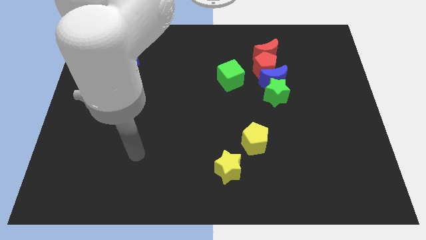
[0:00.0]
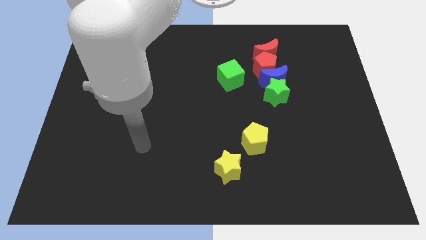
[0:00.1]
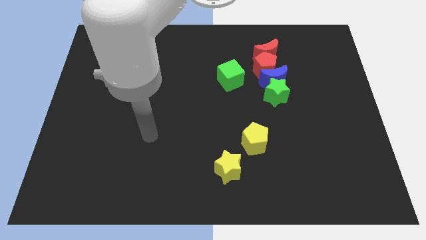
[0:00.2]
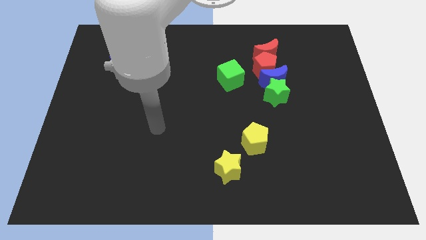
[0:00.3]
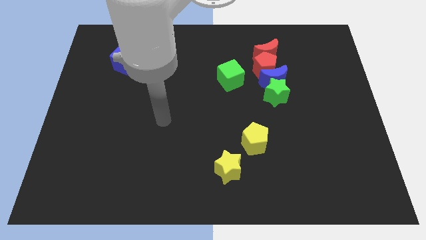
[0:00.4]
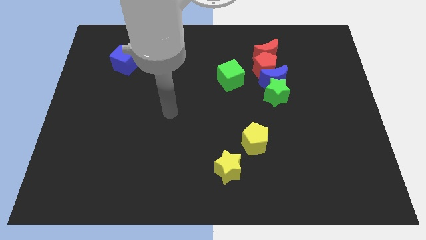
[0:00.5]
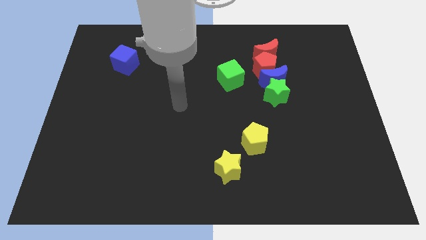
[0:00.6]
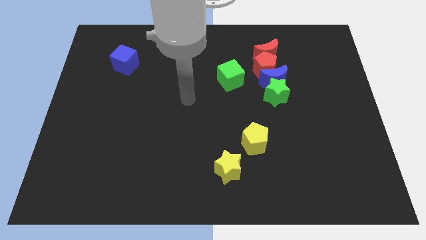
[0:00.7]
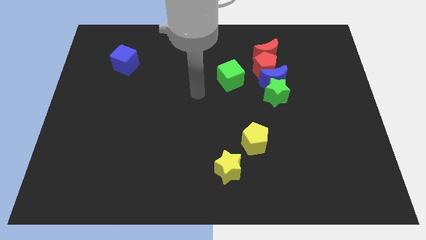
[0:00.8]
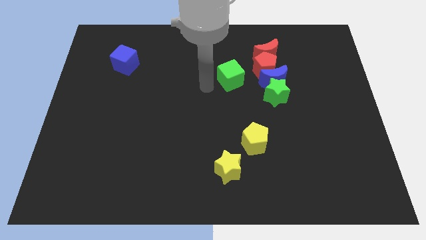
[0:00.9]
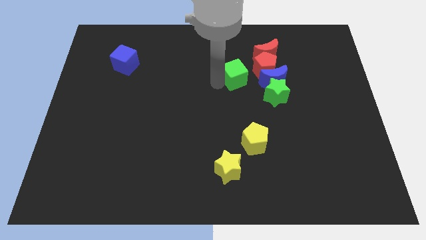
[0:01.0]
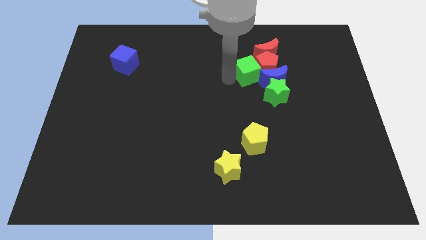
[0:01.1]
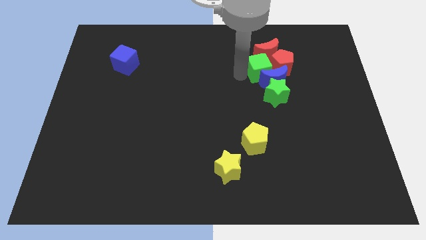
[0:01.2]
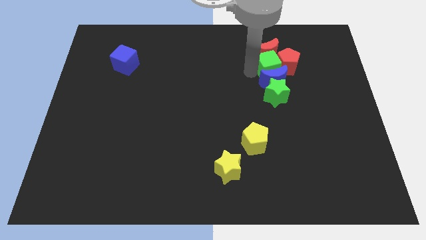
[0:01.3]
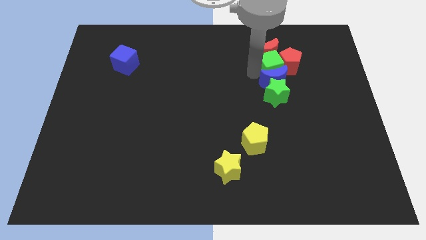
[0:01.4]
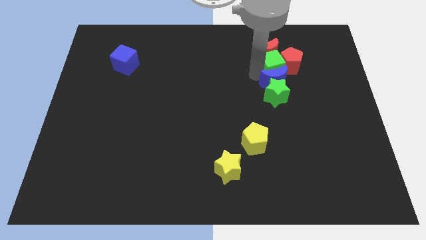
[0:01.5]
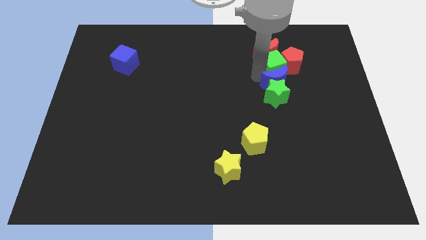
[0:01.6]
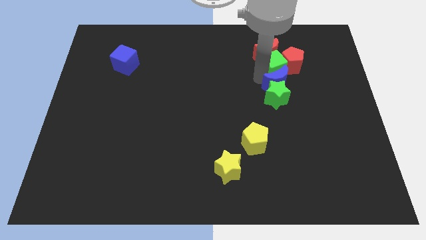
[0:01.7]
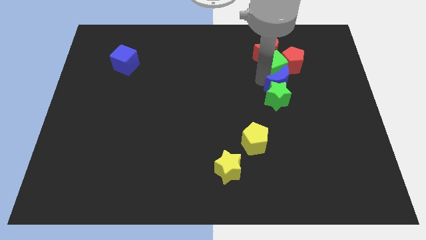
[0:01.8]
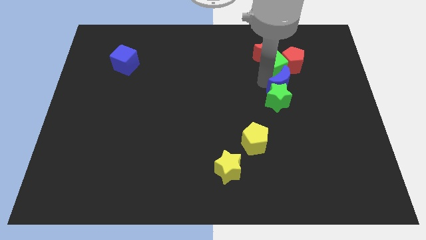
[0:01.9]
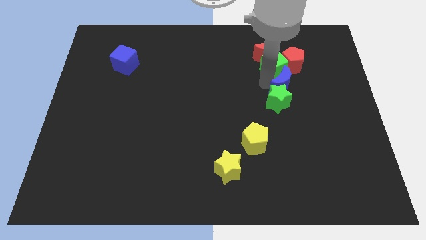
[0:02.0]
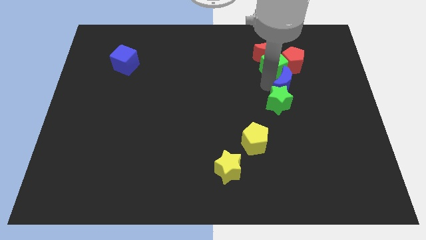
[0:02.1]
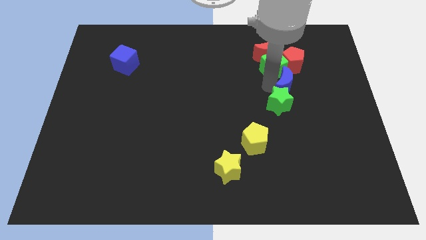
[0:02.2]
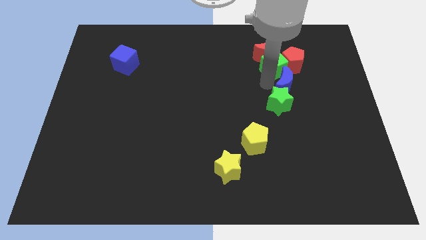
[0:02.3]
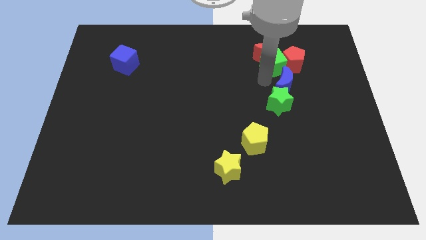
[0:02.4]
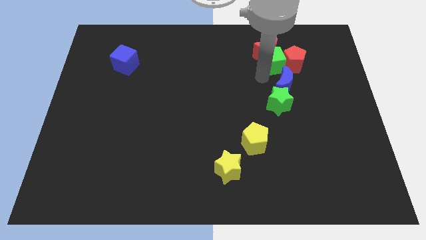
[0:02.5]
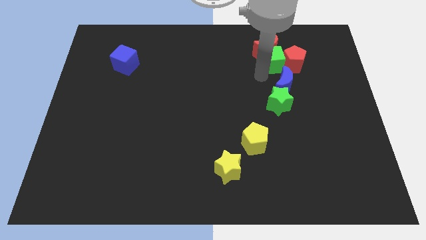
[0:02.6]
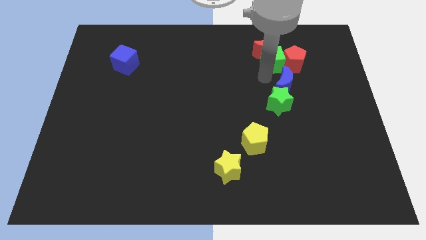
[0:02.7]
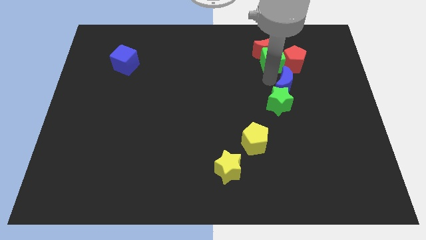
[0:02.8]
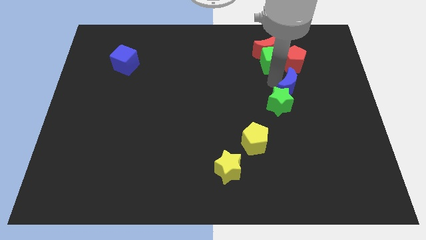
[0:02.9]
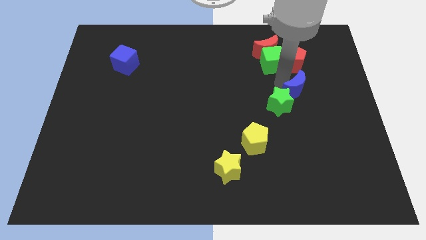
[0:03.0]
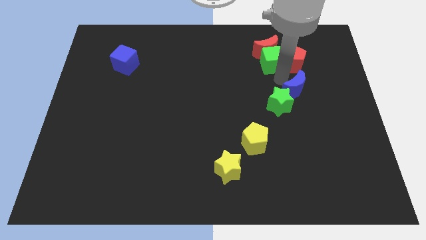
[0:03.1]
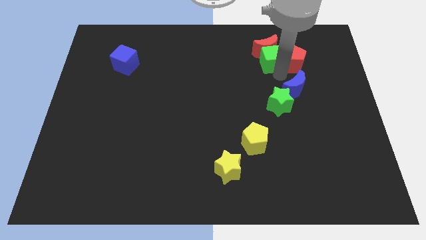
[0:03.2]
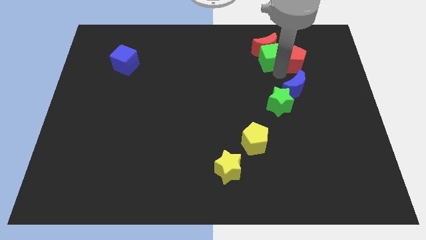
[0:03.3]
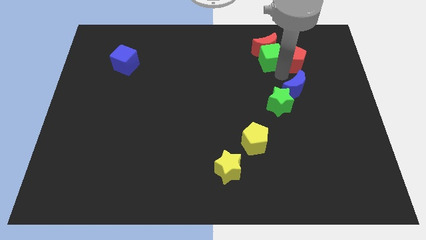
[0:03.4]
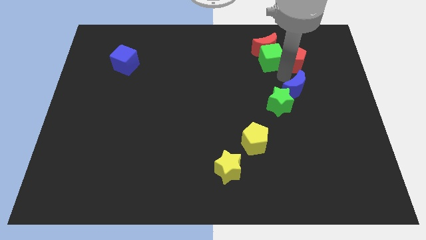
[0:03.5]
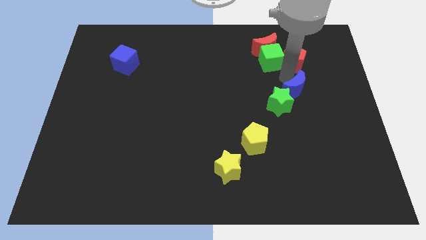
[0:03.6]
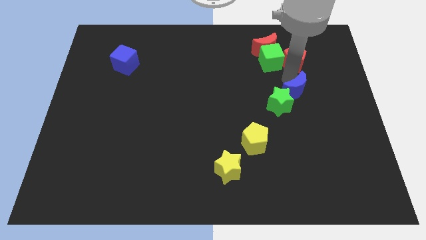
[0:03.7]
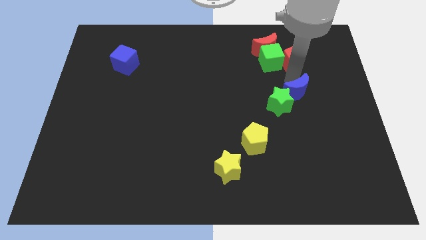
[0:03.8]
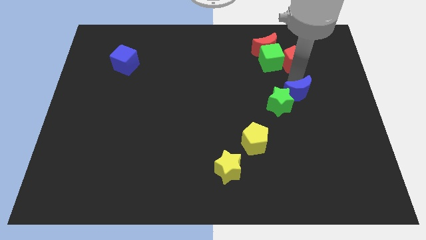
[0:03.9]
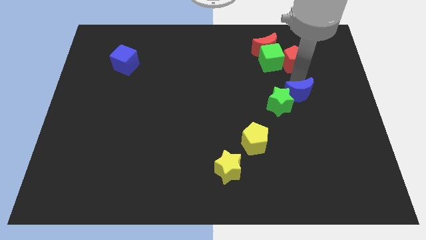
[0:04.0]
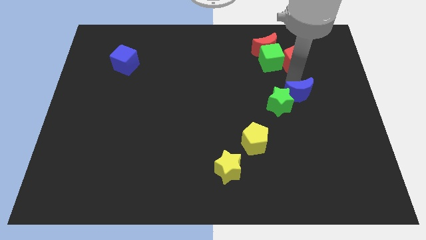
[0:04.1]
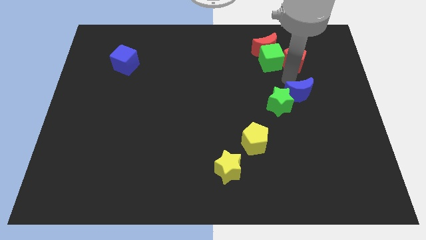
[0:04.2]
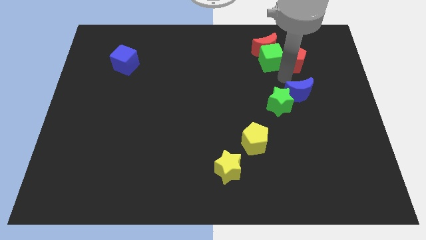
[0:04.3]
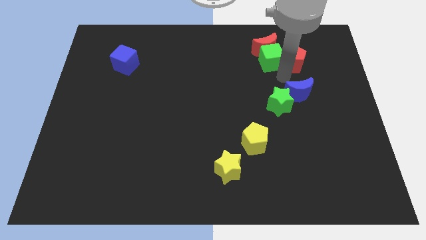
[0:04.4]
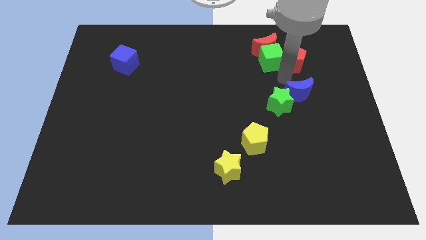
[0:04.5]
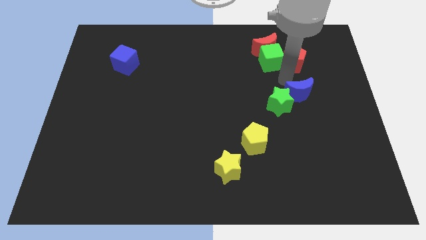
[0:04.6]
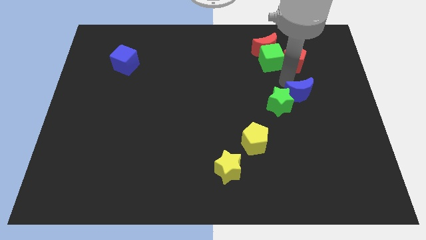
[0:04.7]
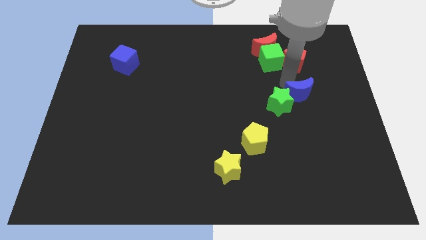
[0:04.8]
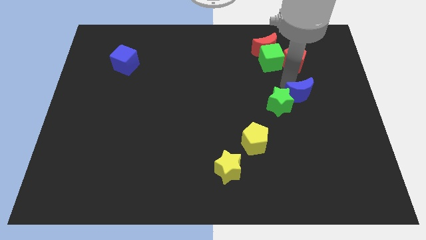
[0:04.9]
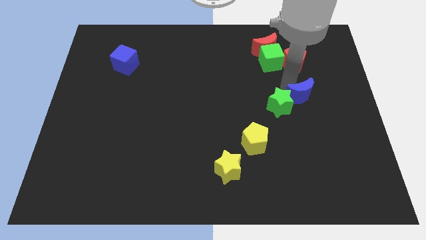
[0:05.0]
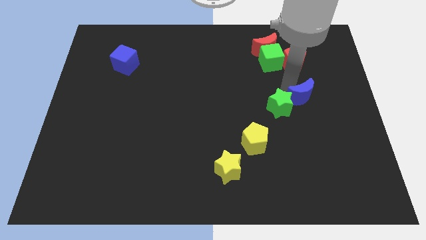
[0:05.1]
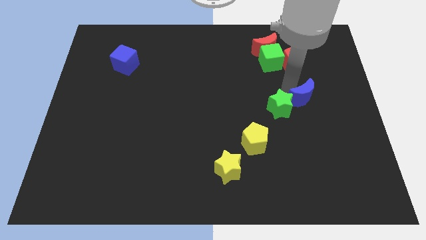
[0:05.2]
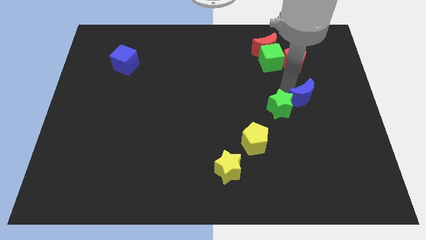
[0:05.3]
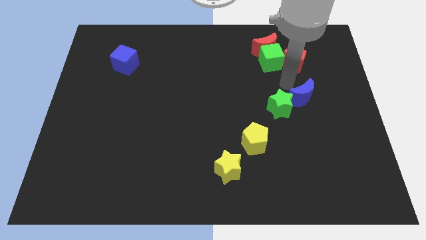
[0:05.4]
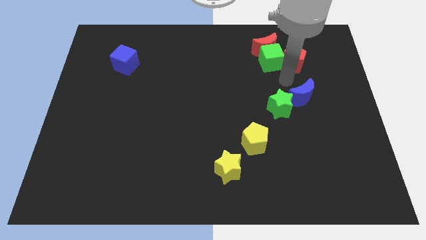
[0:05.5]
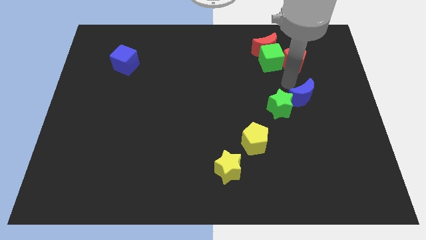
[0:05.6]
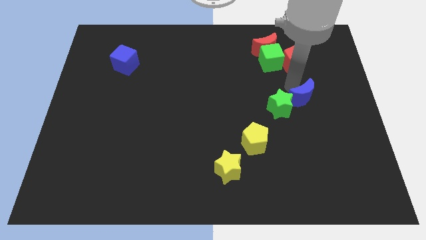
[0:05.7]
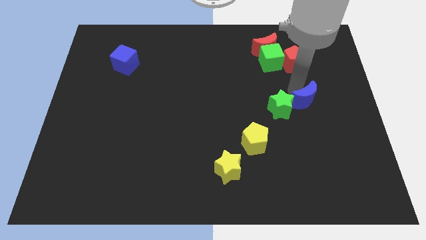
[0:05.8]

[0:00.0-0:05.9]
pull the blue moon apart from the red pentagon, green star, and red moon

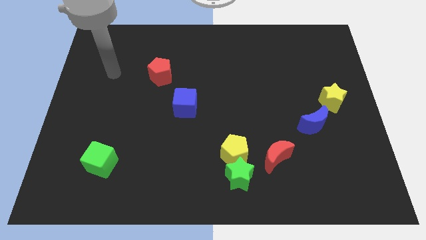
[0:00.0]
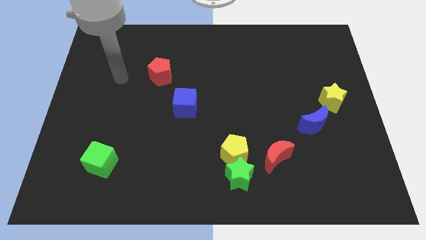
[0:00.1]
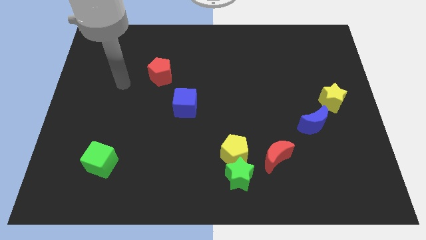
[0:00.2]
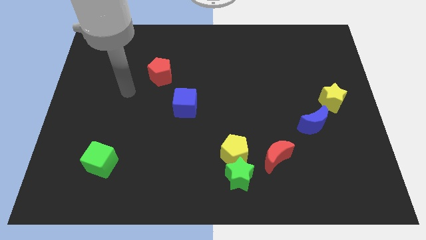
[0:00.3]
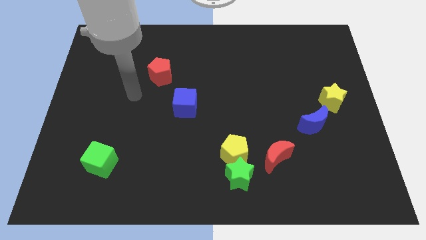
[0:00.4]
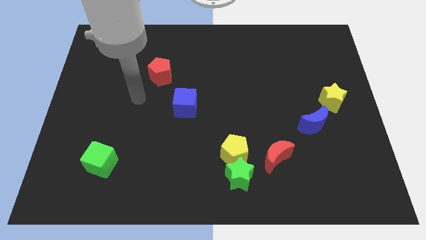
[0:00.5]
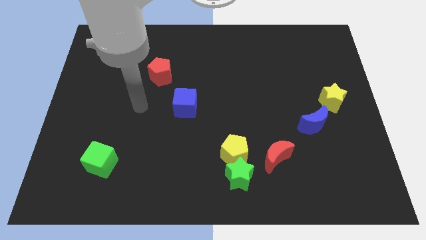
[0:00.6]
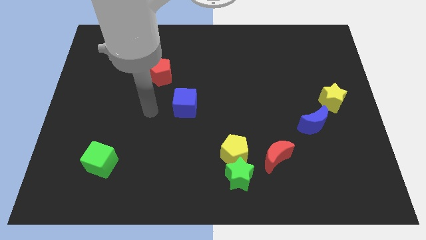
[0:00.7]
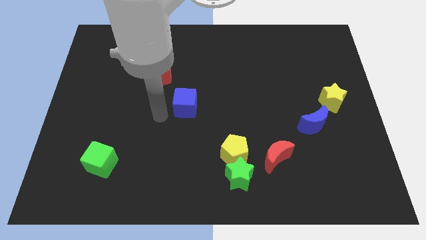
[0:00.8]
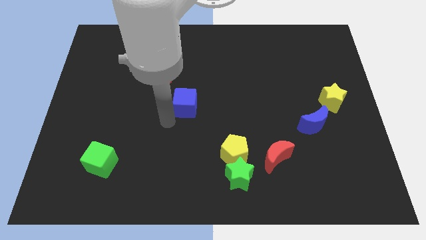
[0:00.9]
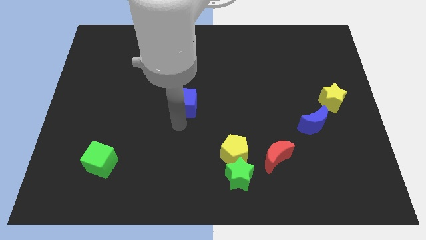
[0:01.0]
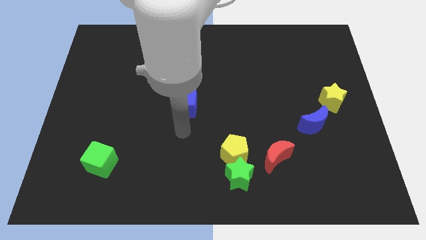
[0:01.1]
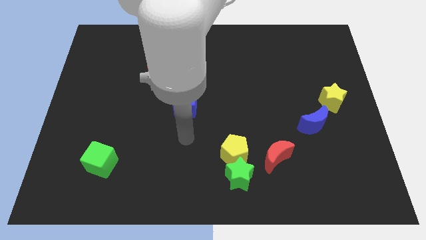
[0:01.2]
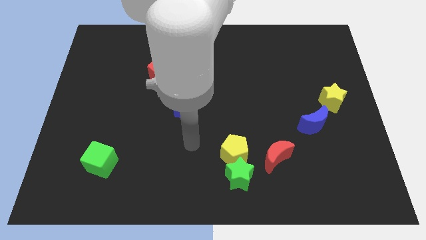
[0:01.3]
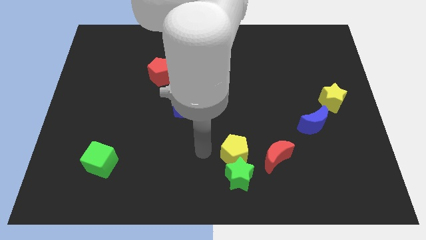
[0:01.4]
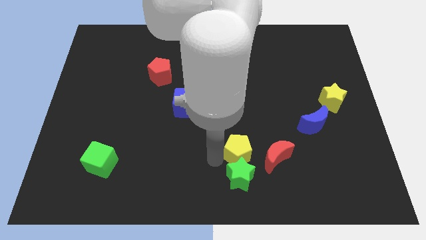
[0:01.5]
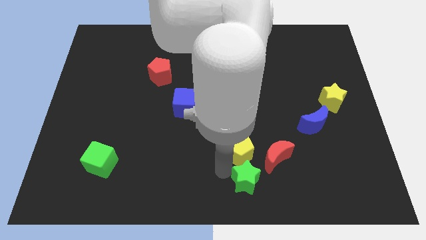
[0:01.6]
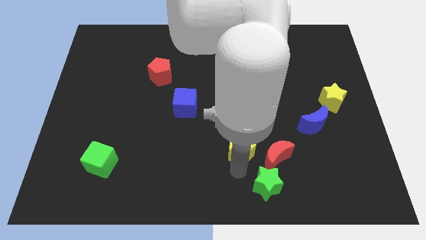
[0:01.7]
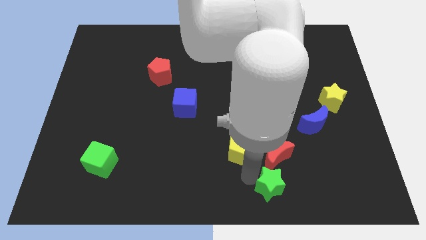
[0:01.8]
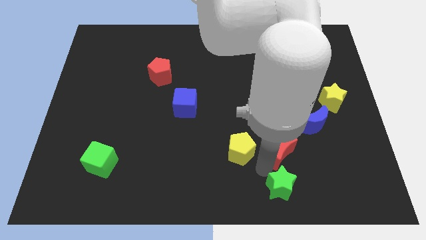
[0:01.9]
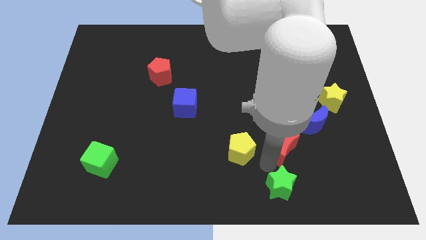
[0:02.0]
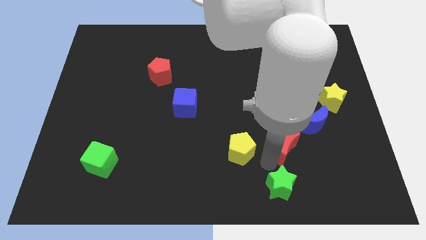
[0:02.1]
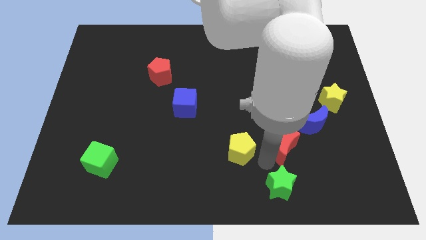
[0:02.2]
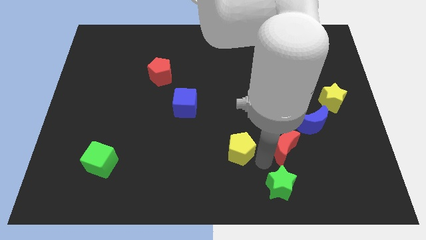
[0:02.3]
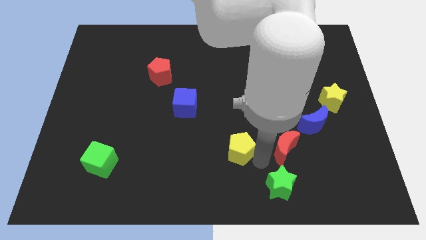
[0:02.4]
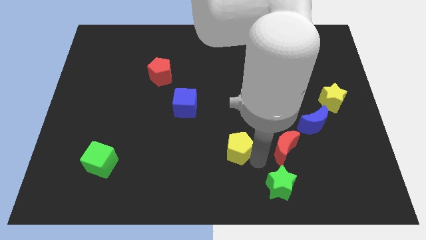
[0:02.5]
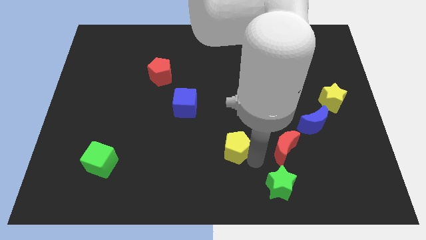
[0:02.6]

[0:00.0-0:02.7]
separate the yellow pentagon from the green star and red moon

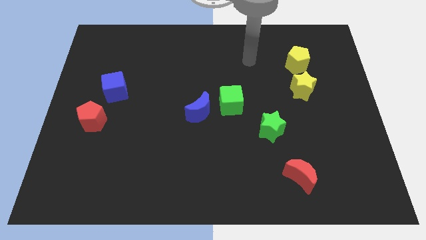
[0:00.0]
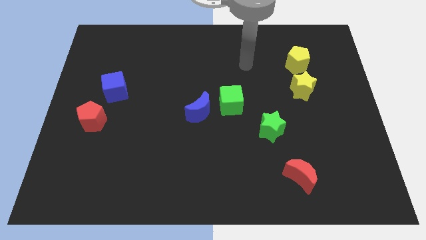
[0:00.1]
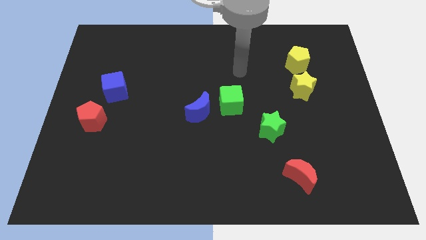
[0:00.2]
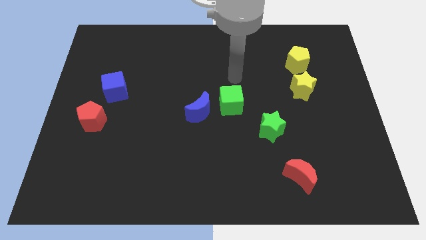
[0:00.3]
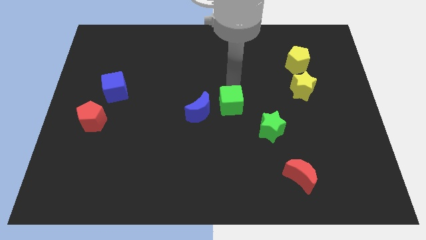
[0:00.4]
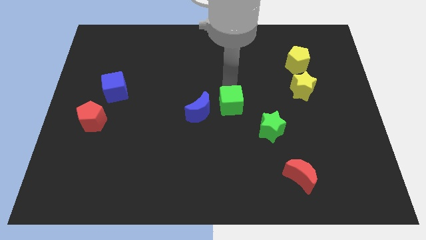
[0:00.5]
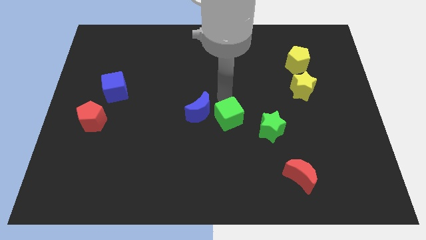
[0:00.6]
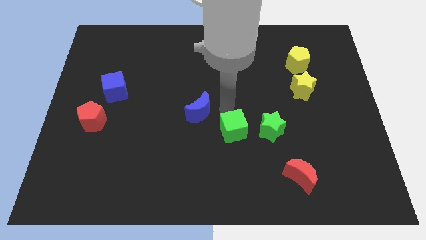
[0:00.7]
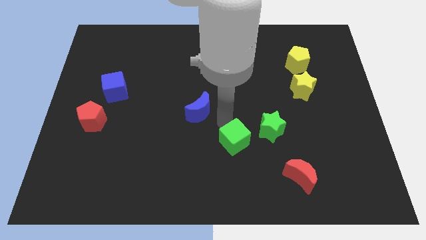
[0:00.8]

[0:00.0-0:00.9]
move the blue moon away from the green cube
